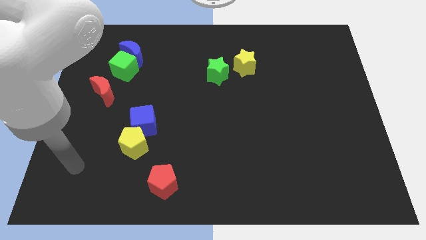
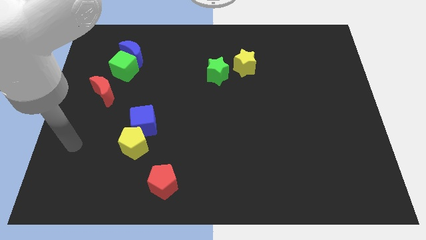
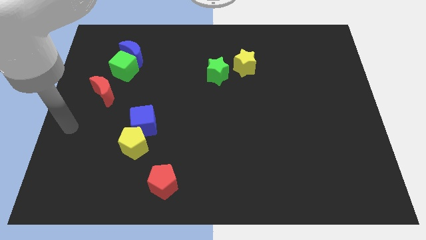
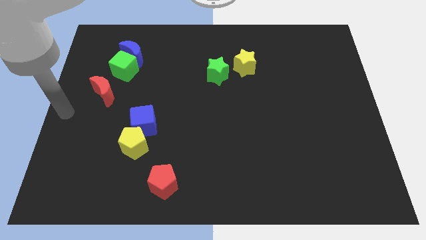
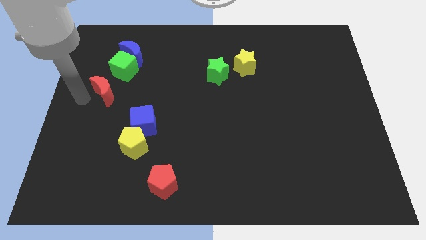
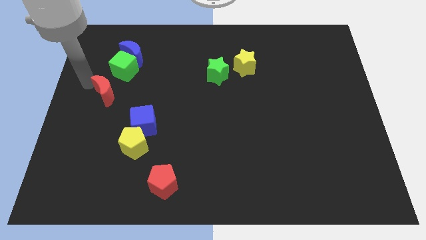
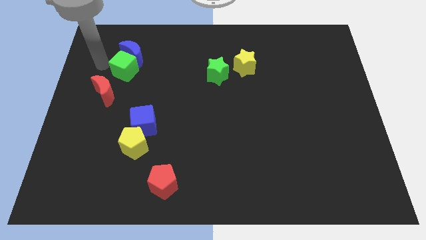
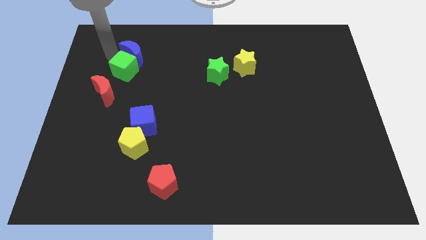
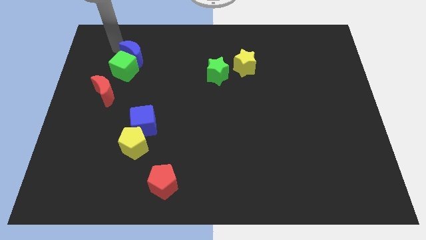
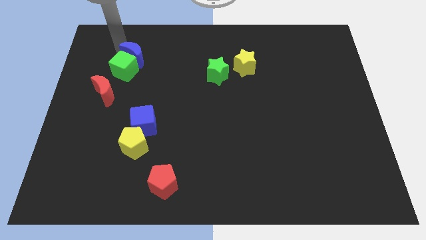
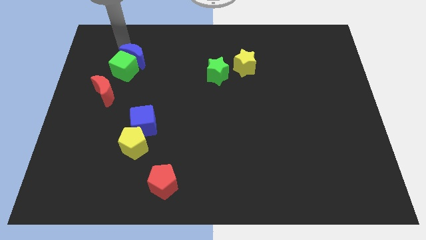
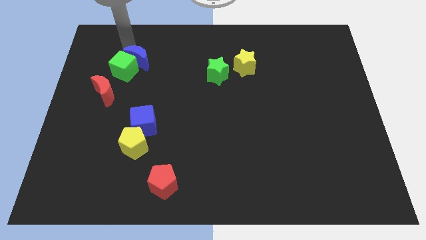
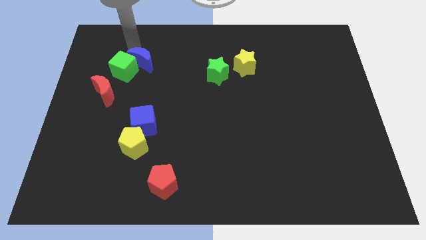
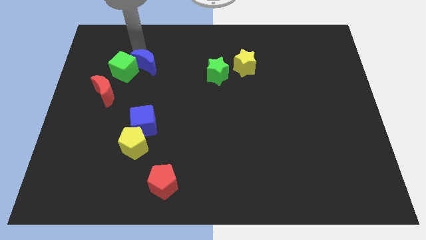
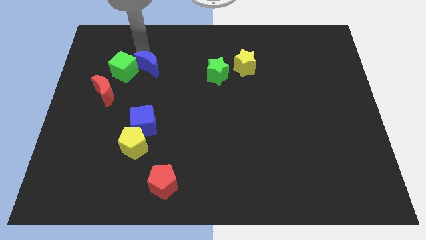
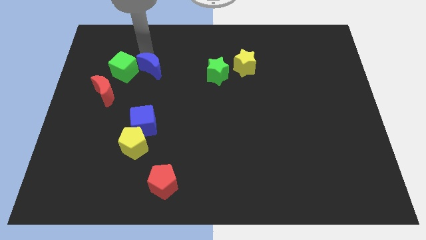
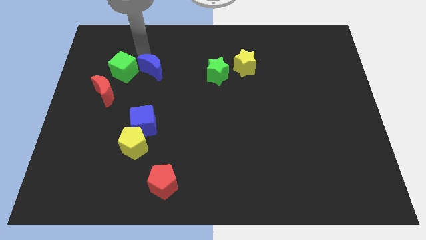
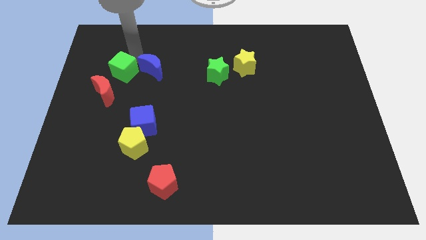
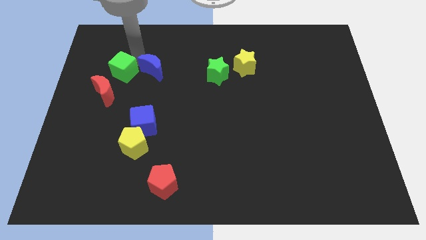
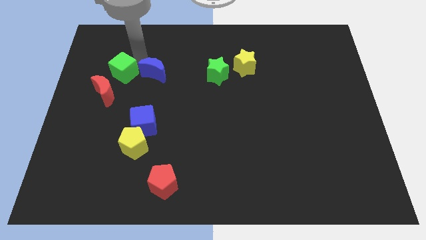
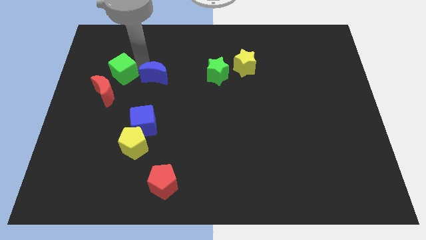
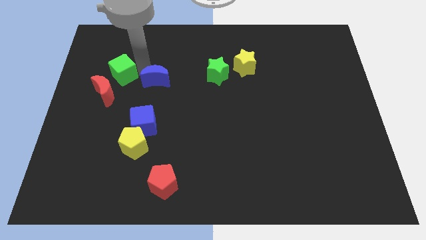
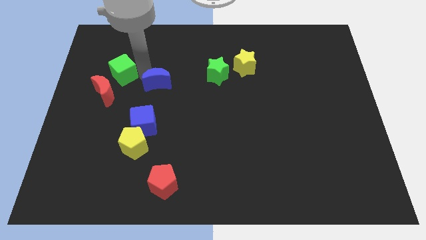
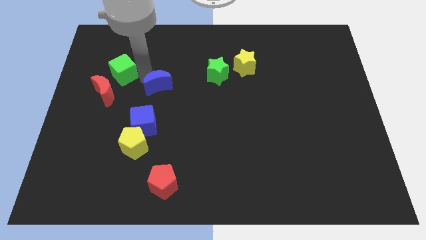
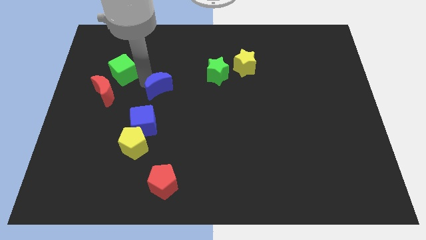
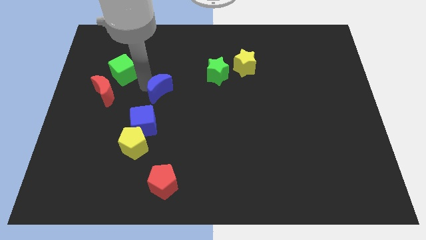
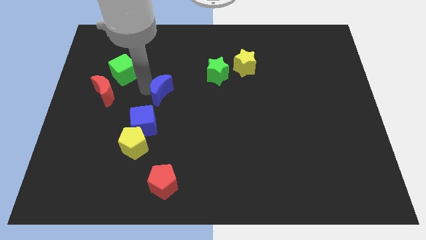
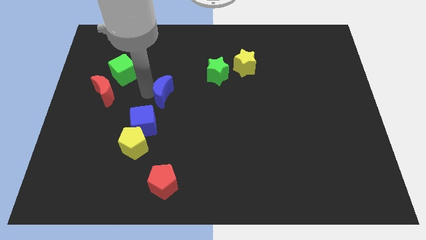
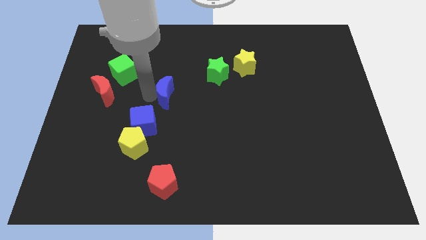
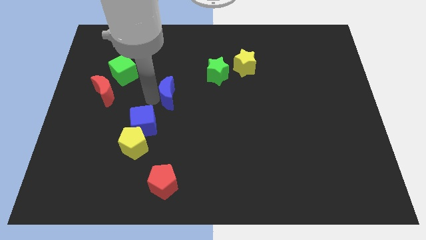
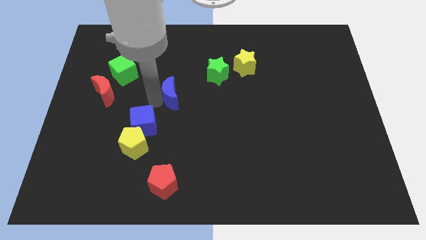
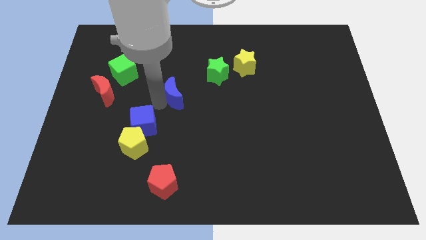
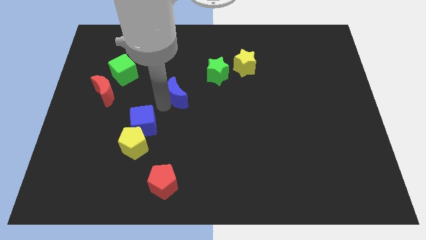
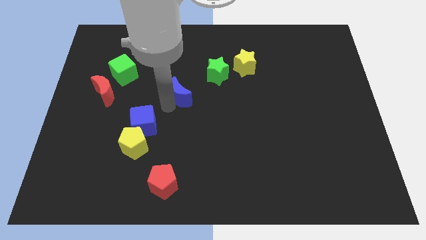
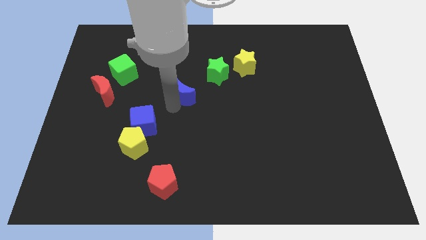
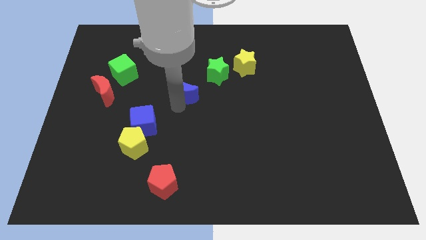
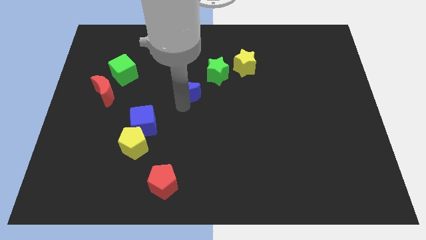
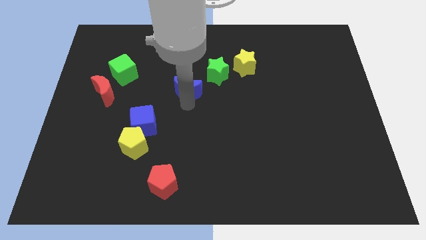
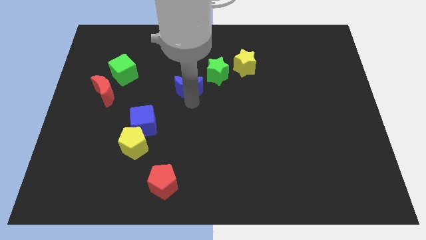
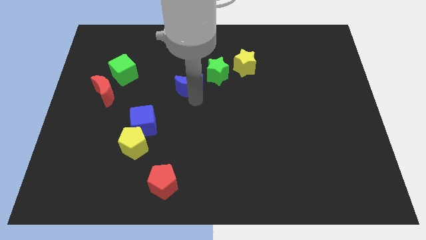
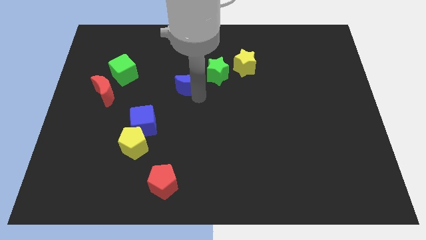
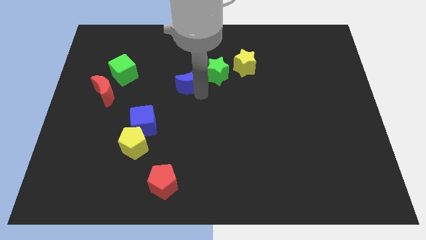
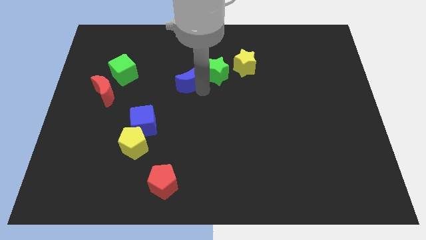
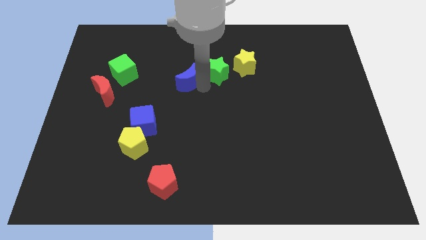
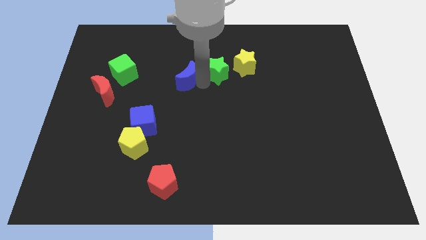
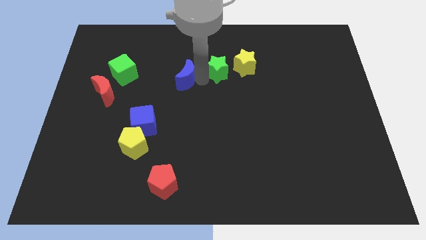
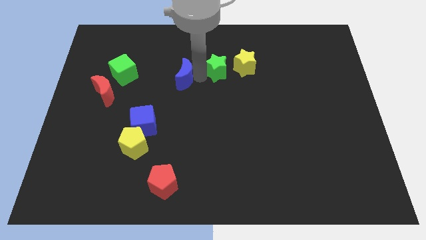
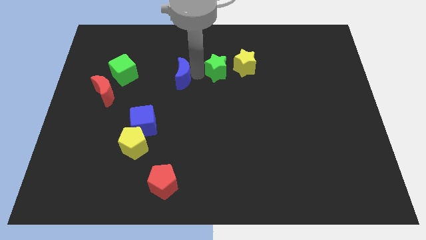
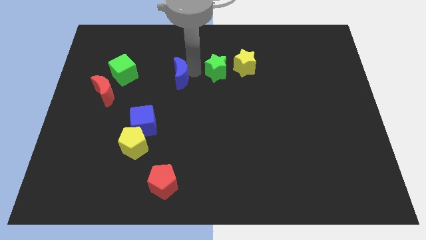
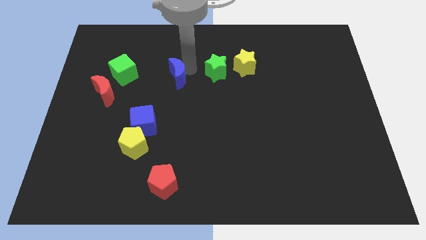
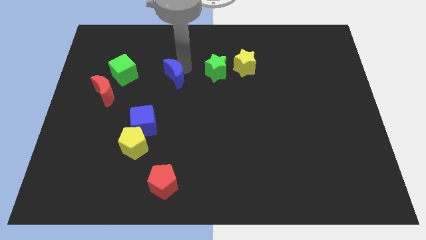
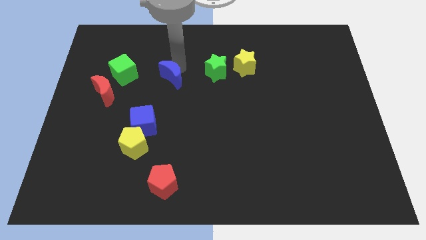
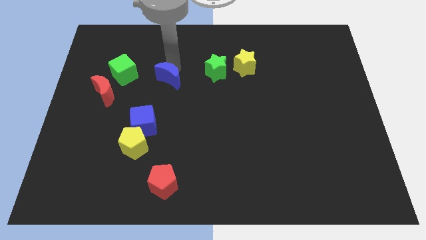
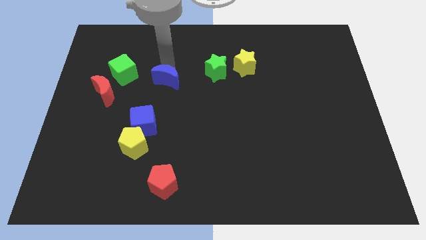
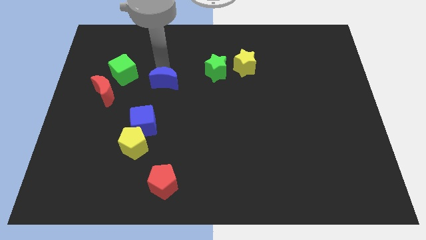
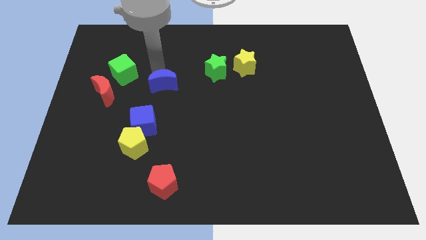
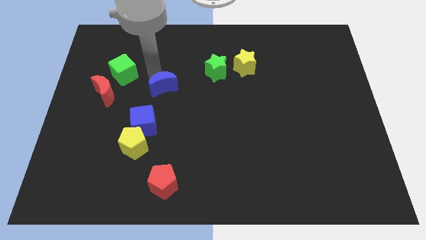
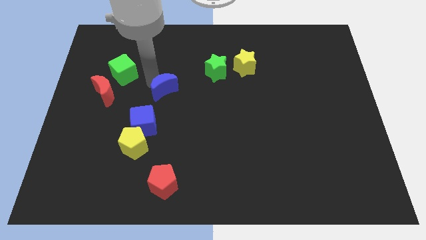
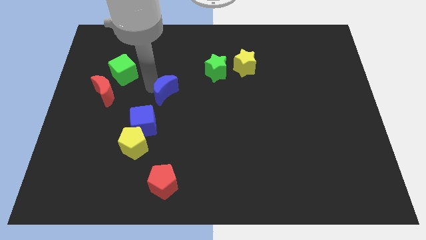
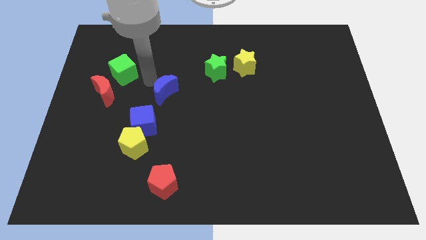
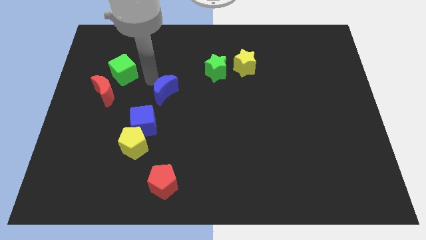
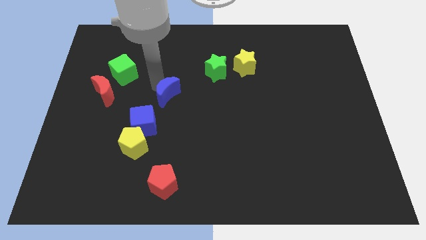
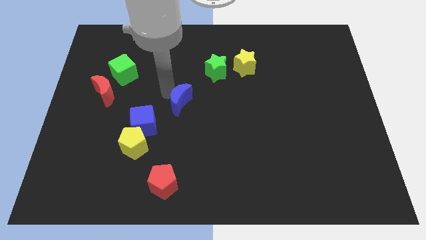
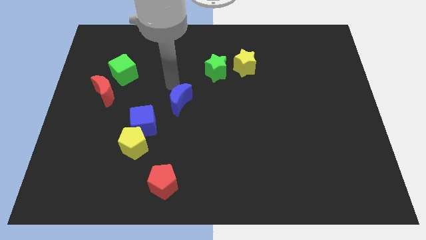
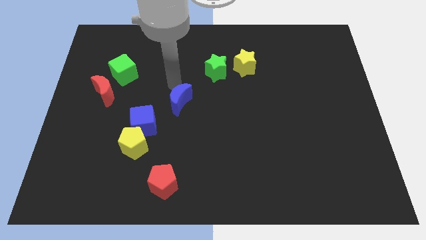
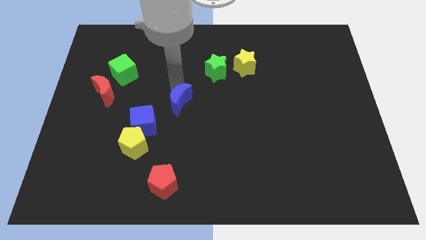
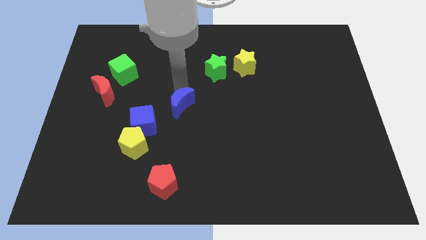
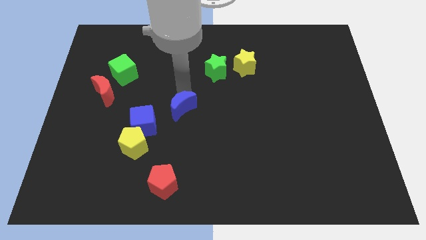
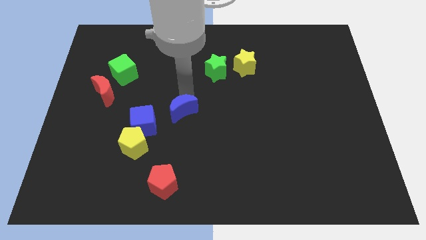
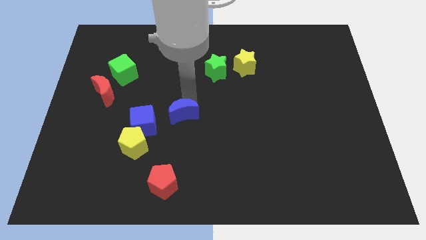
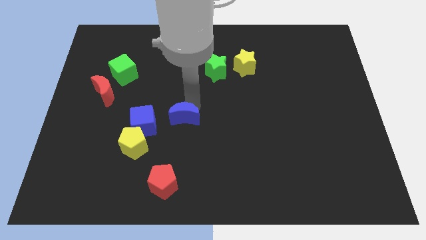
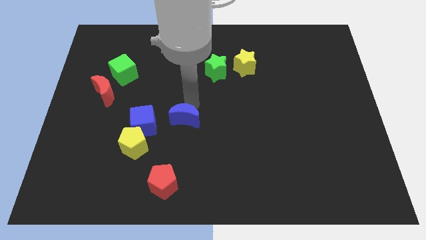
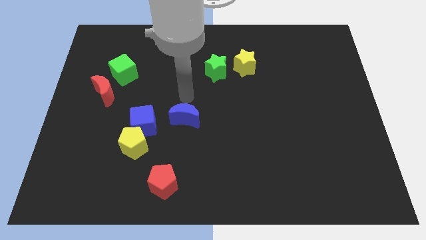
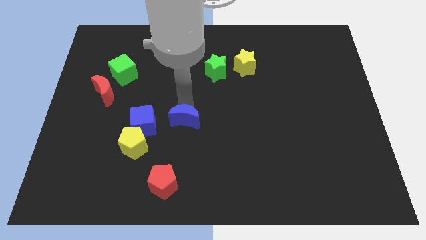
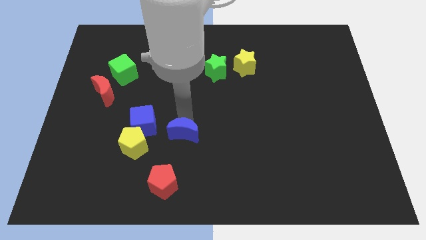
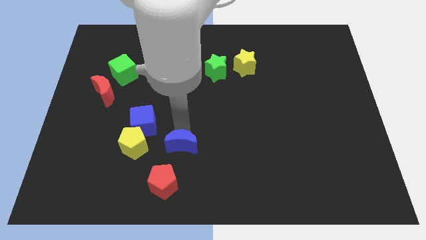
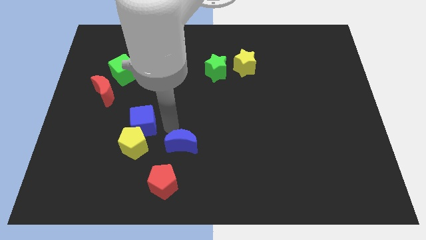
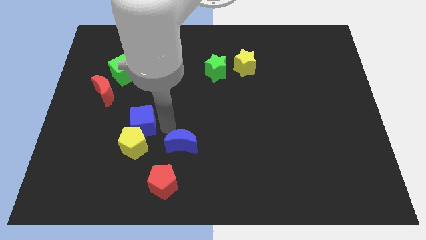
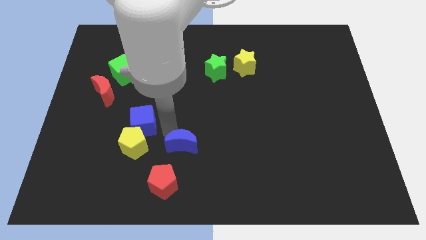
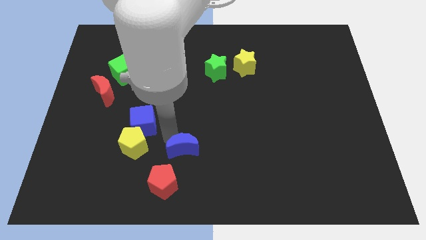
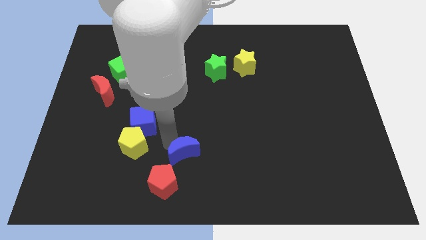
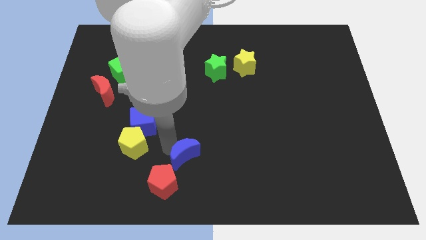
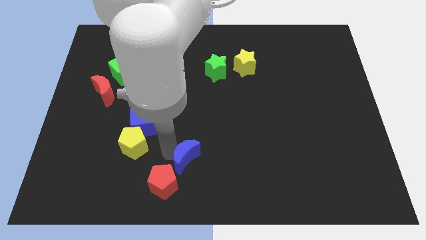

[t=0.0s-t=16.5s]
move the blue moon to the bottom
